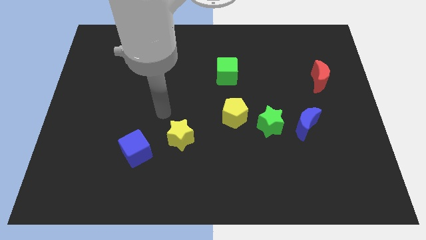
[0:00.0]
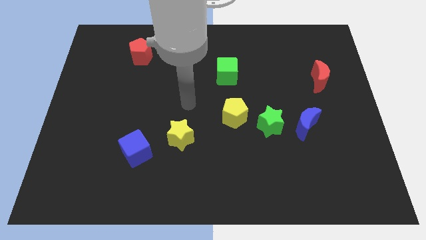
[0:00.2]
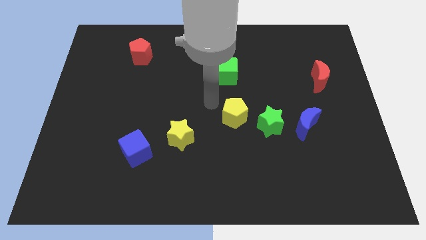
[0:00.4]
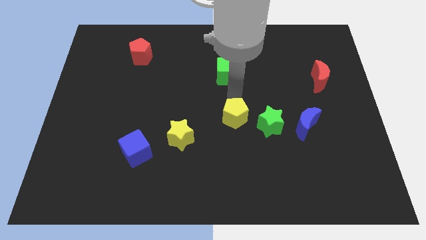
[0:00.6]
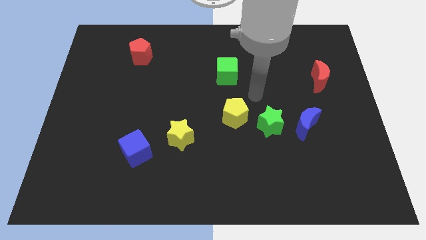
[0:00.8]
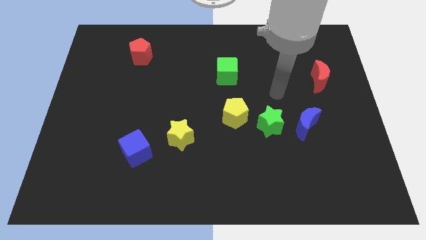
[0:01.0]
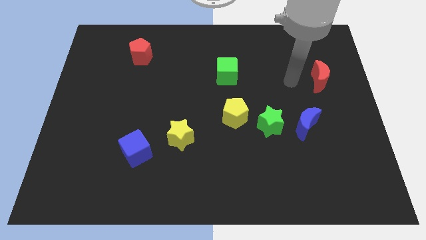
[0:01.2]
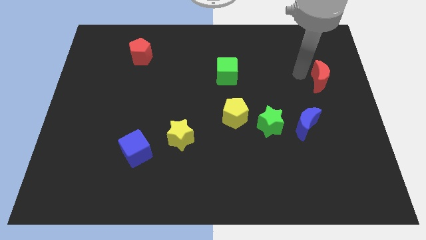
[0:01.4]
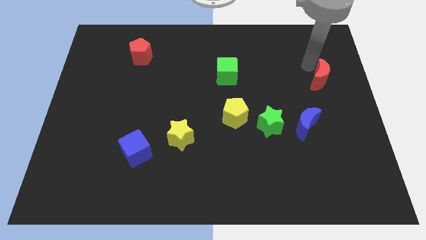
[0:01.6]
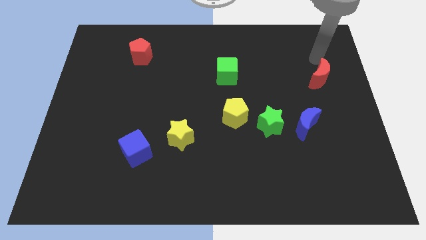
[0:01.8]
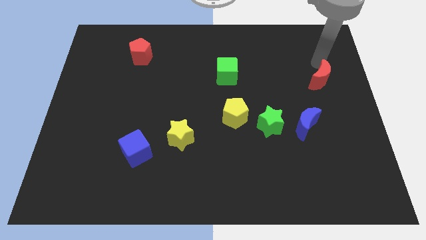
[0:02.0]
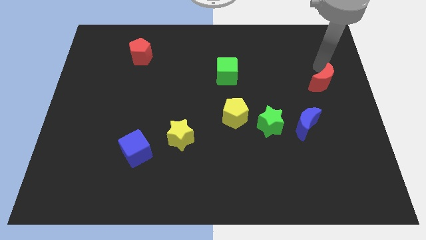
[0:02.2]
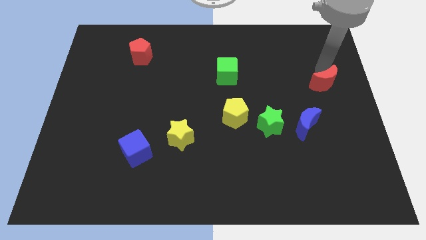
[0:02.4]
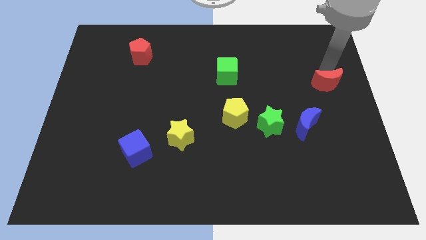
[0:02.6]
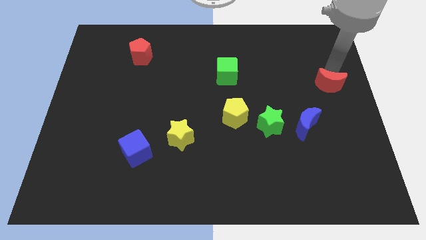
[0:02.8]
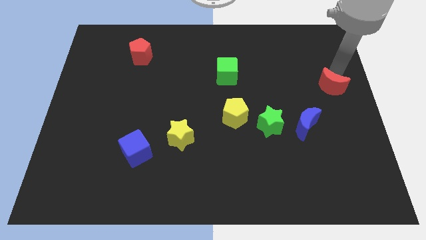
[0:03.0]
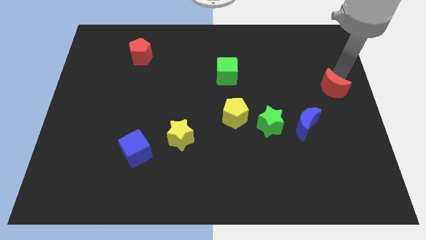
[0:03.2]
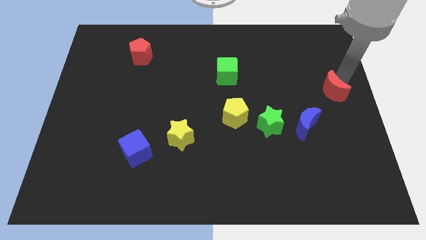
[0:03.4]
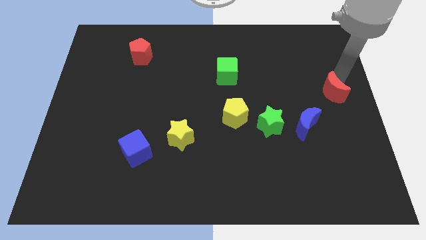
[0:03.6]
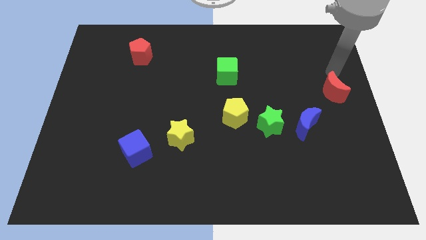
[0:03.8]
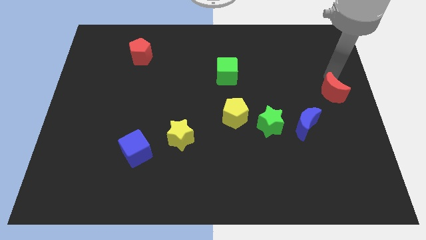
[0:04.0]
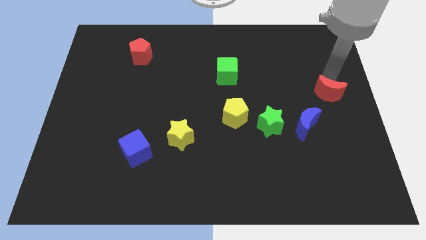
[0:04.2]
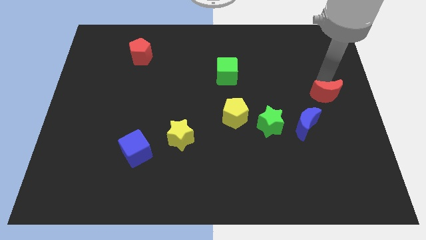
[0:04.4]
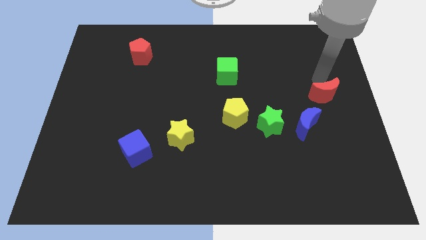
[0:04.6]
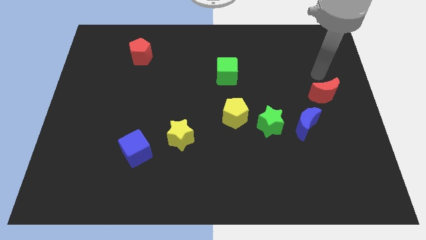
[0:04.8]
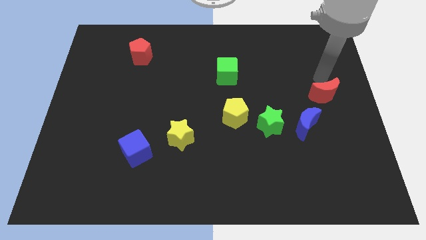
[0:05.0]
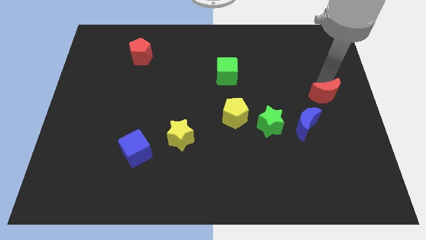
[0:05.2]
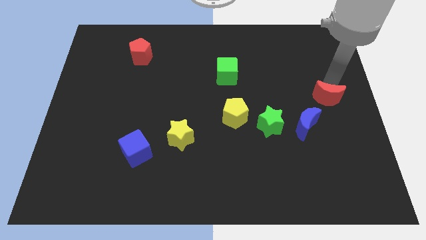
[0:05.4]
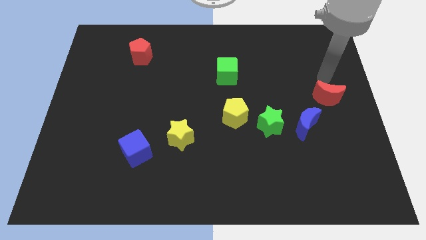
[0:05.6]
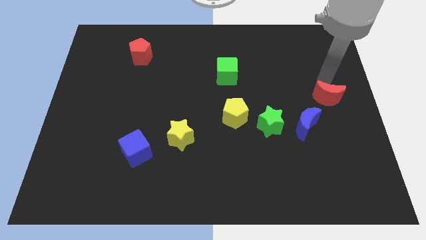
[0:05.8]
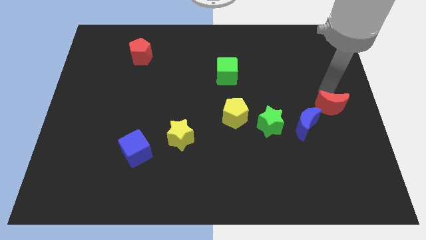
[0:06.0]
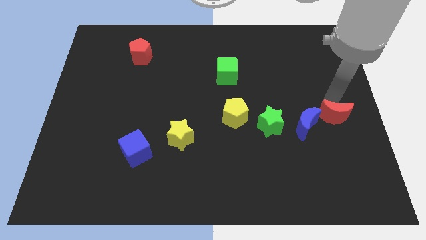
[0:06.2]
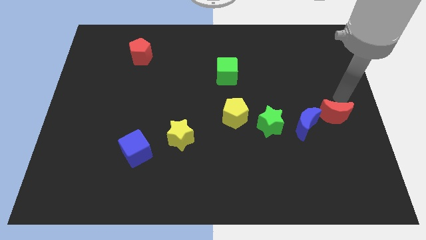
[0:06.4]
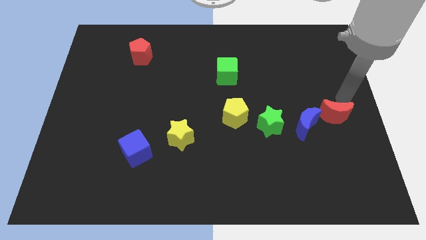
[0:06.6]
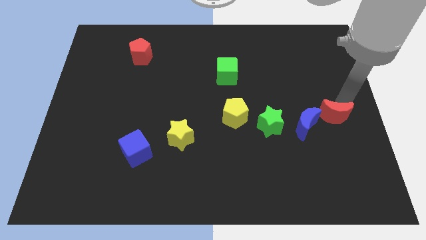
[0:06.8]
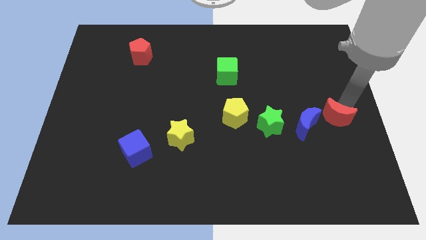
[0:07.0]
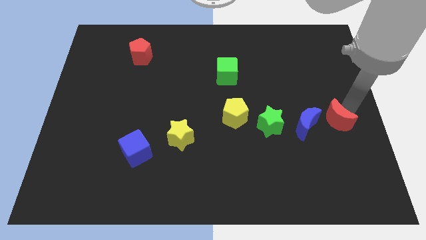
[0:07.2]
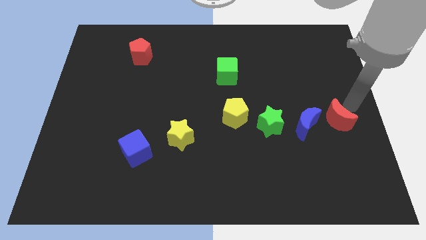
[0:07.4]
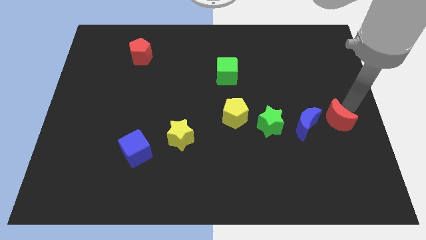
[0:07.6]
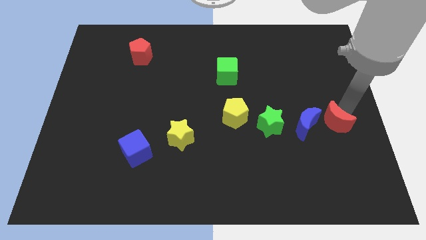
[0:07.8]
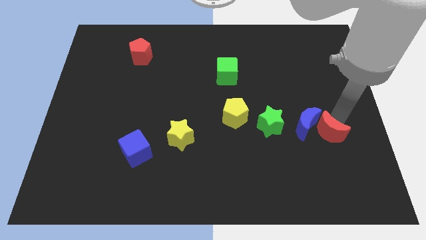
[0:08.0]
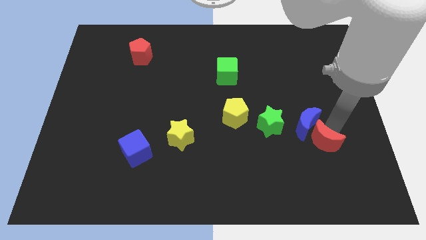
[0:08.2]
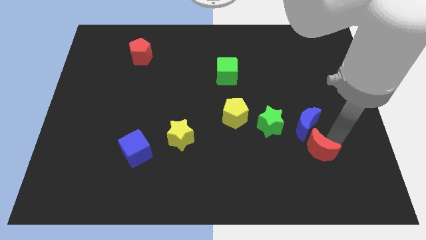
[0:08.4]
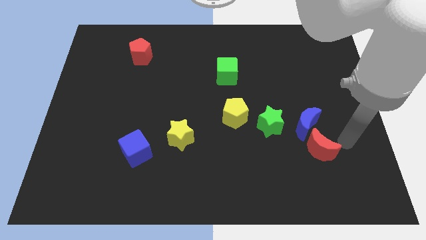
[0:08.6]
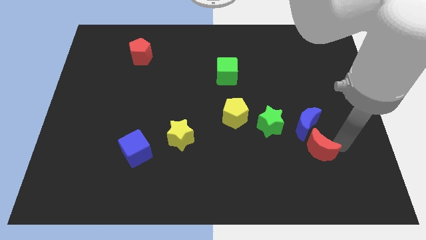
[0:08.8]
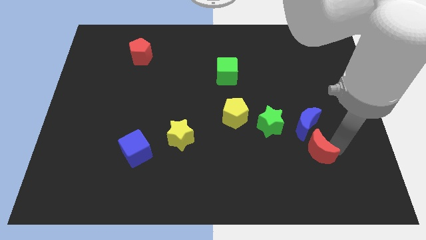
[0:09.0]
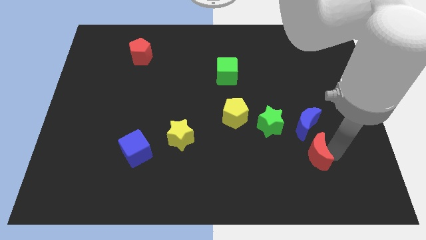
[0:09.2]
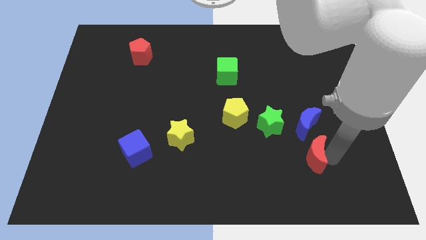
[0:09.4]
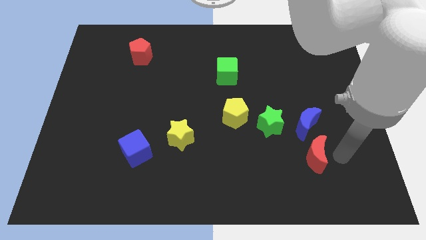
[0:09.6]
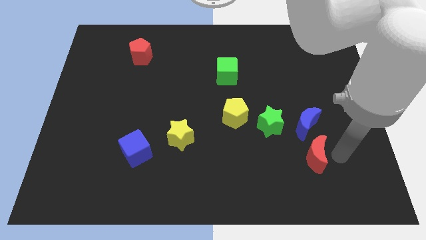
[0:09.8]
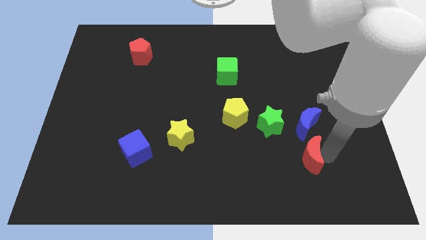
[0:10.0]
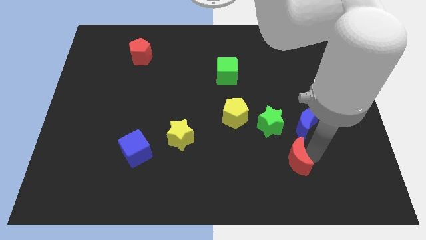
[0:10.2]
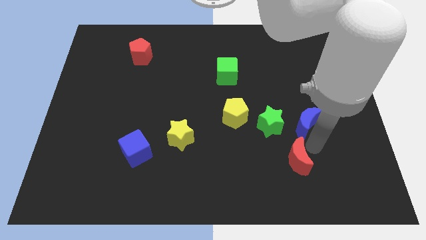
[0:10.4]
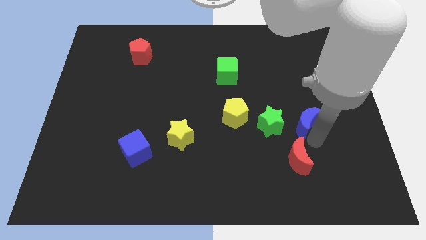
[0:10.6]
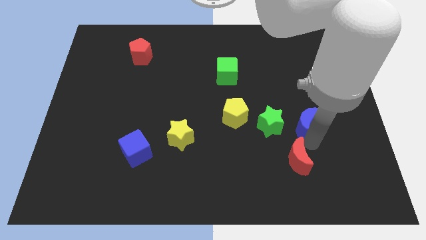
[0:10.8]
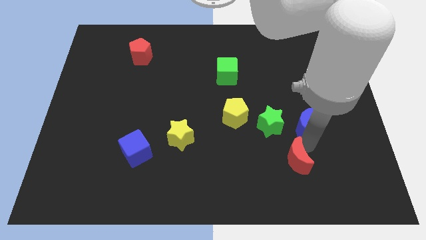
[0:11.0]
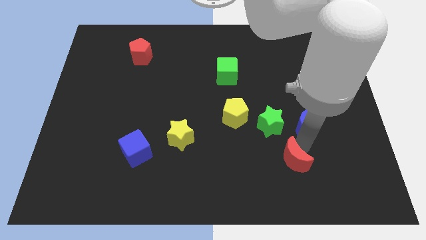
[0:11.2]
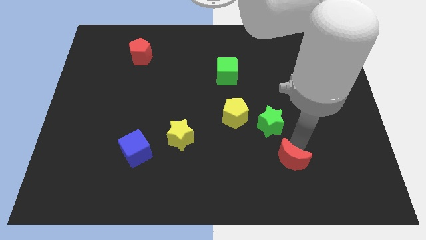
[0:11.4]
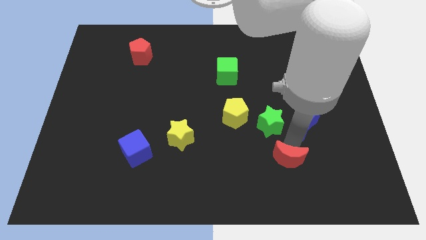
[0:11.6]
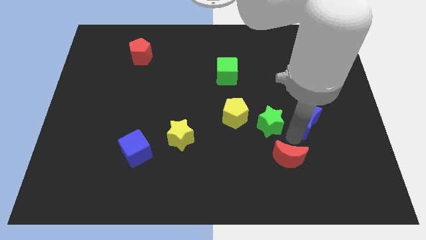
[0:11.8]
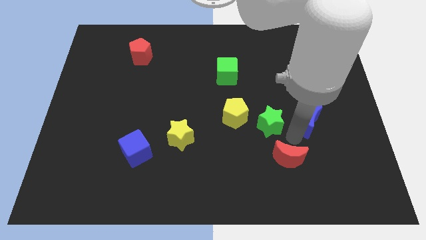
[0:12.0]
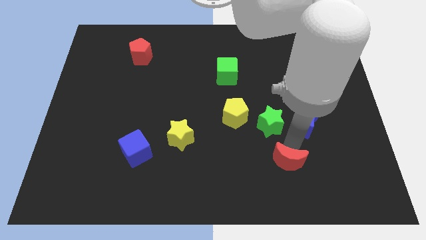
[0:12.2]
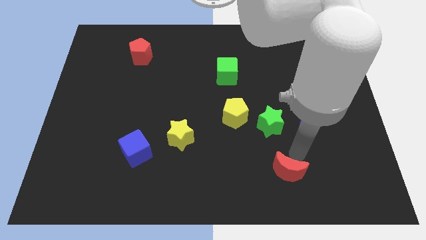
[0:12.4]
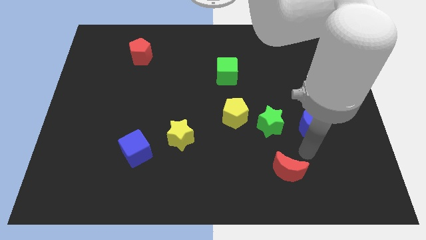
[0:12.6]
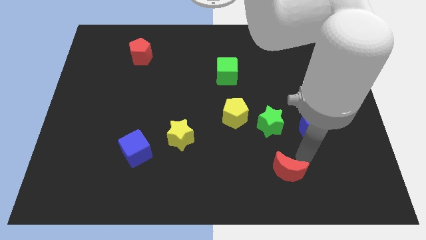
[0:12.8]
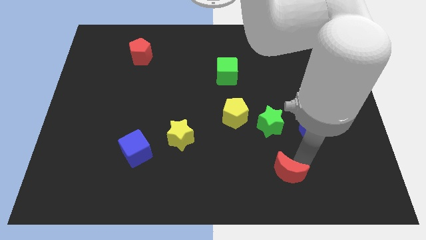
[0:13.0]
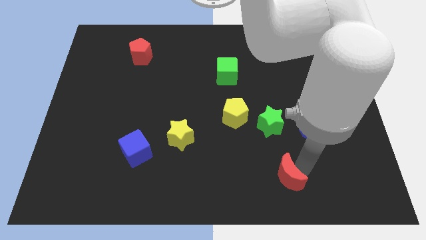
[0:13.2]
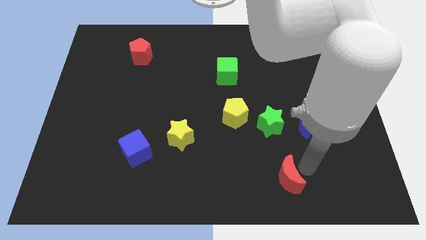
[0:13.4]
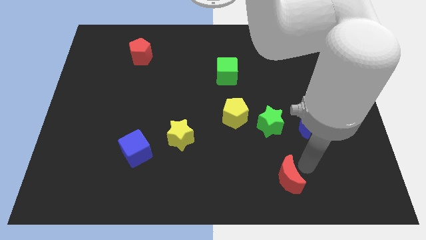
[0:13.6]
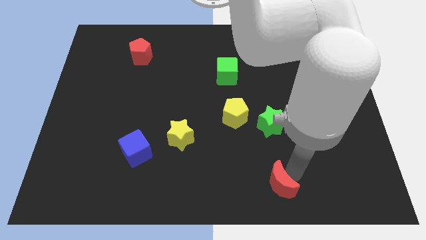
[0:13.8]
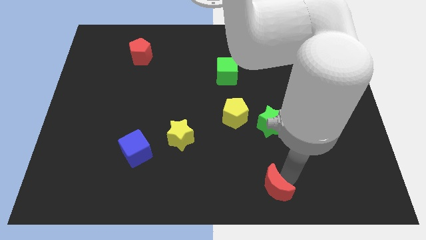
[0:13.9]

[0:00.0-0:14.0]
slide the red moon to the bottom side
